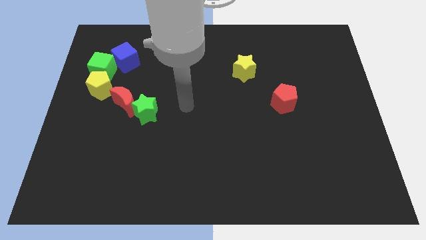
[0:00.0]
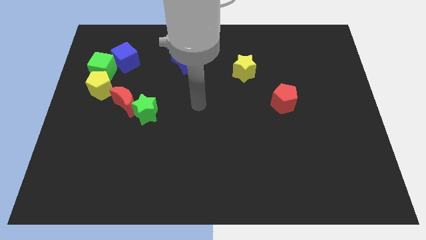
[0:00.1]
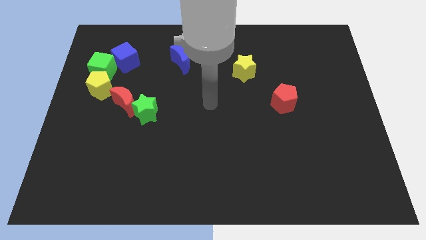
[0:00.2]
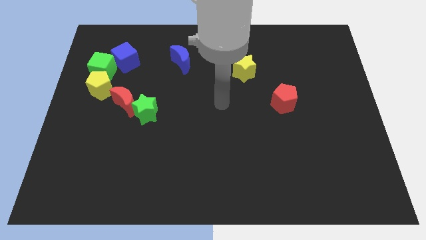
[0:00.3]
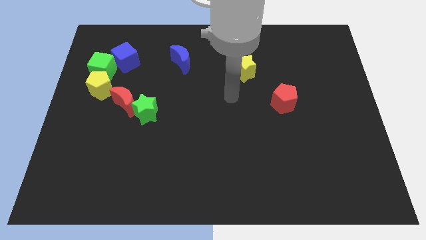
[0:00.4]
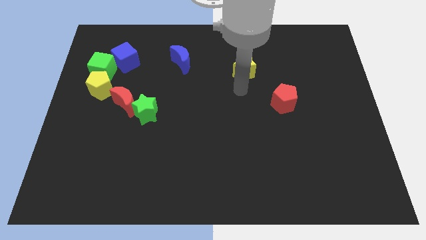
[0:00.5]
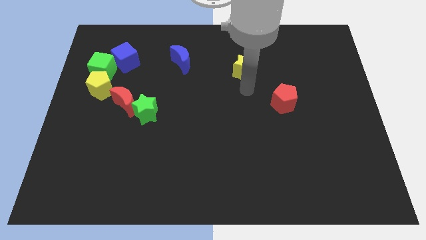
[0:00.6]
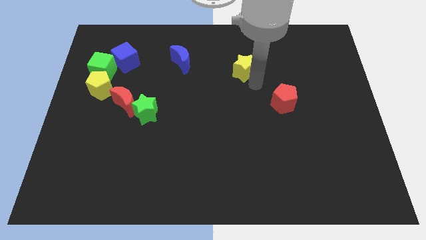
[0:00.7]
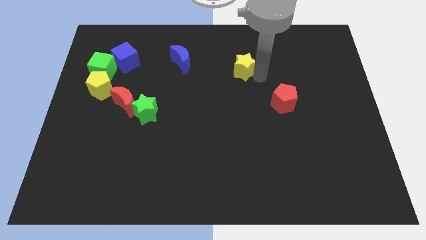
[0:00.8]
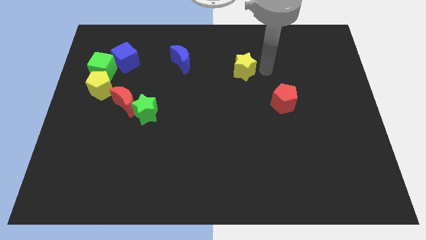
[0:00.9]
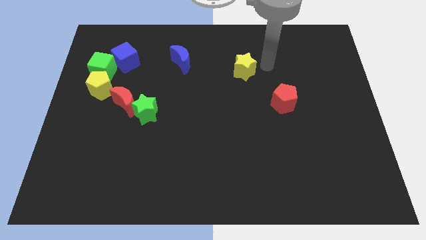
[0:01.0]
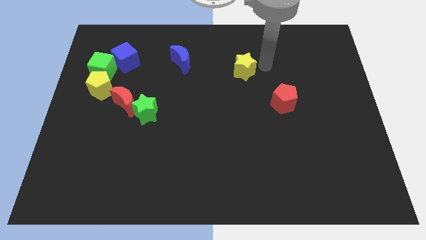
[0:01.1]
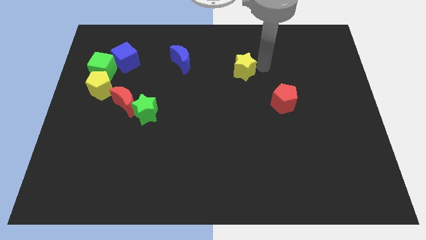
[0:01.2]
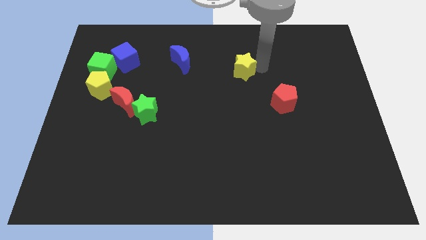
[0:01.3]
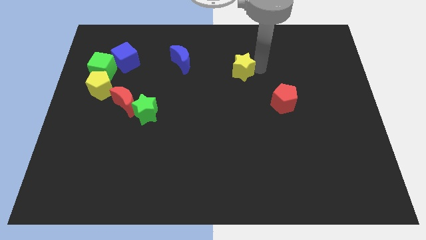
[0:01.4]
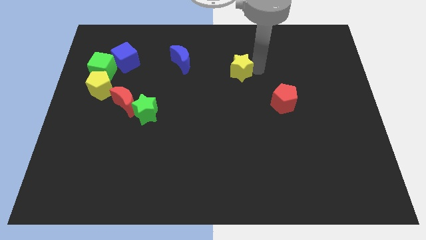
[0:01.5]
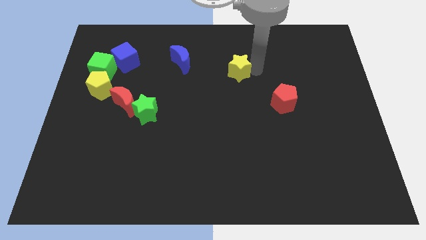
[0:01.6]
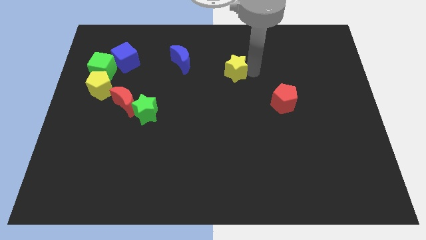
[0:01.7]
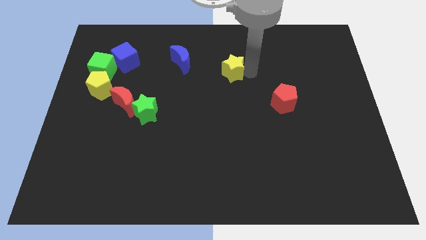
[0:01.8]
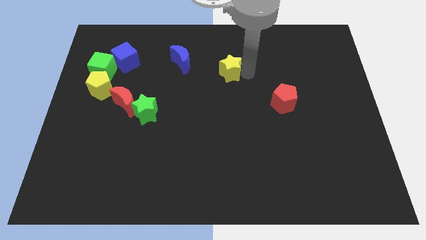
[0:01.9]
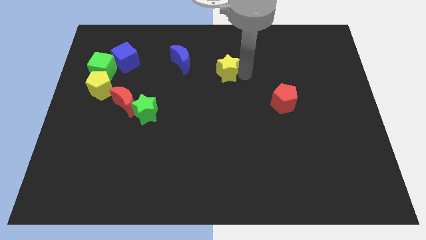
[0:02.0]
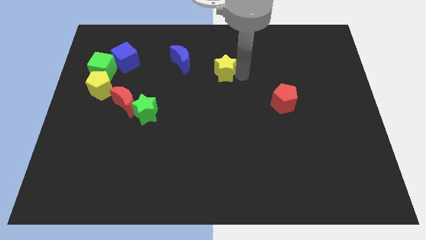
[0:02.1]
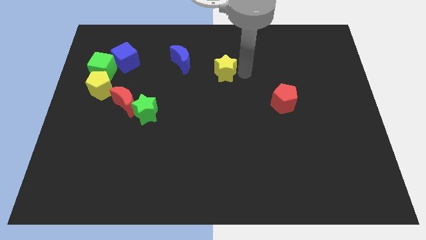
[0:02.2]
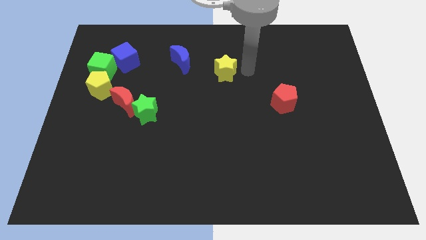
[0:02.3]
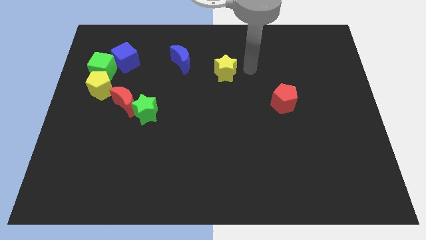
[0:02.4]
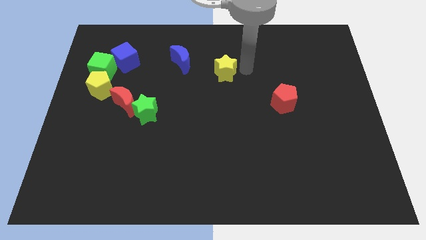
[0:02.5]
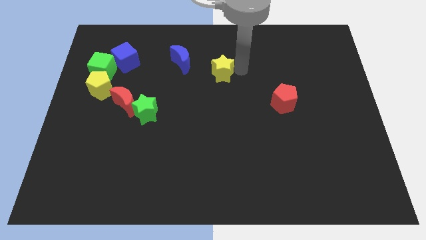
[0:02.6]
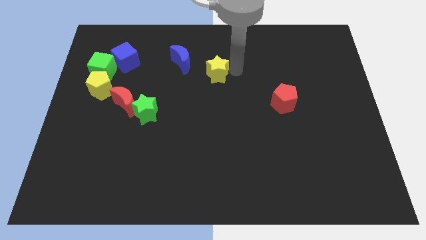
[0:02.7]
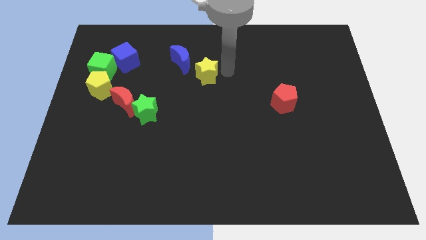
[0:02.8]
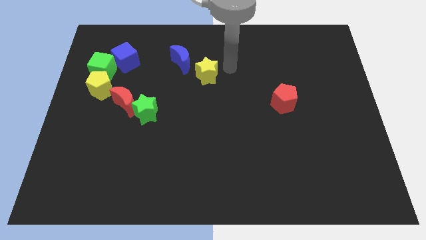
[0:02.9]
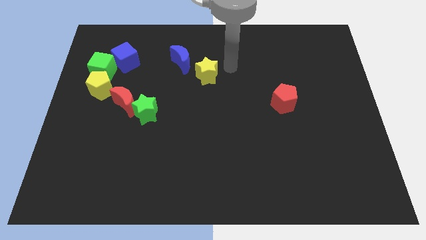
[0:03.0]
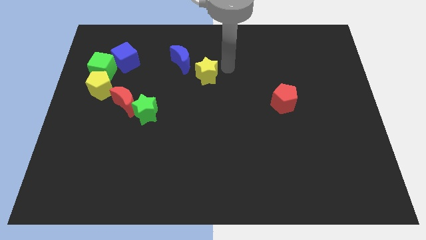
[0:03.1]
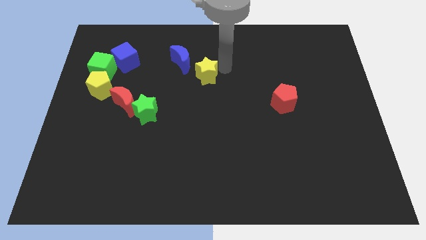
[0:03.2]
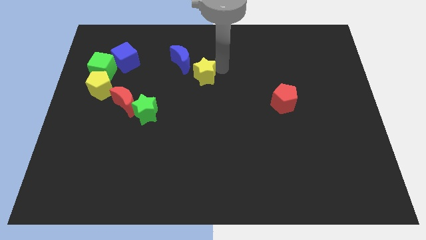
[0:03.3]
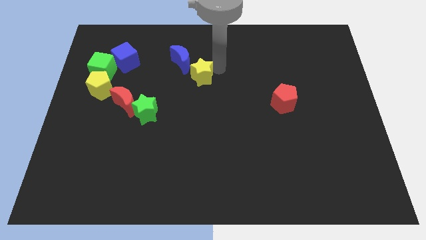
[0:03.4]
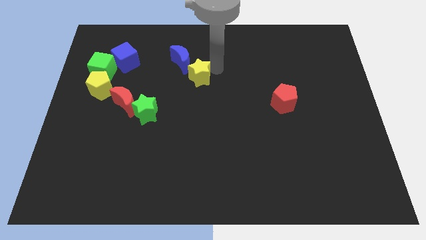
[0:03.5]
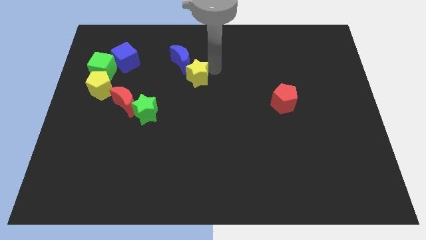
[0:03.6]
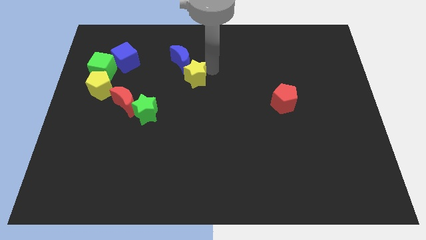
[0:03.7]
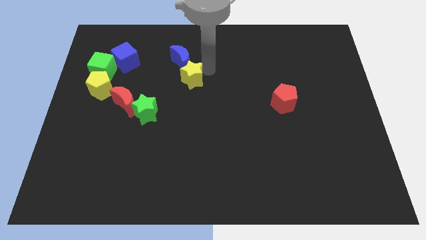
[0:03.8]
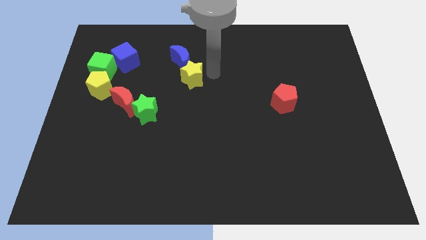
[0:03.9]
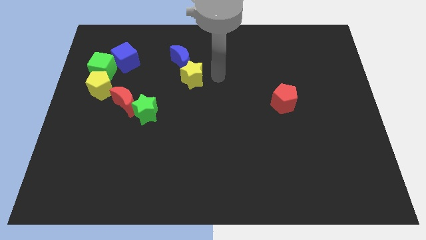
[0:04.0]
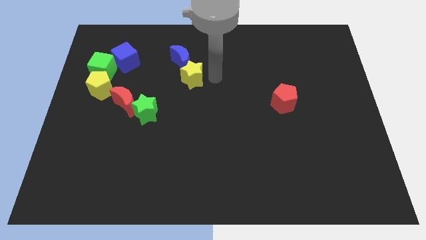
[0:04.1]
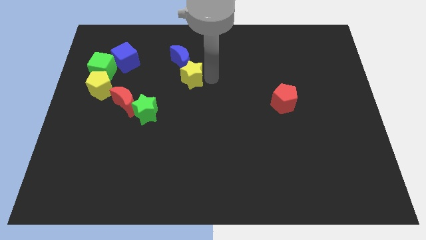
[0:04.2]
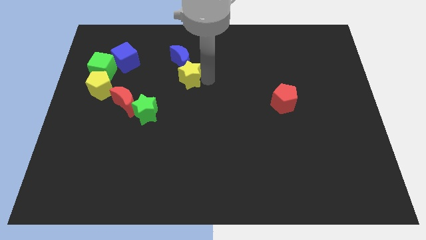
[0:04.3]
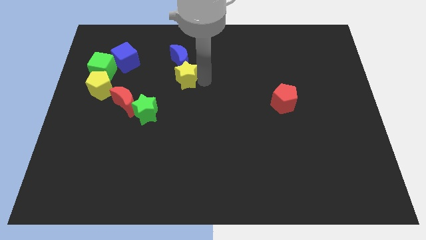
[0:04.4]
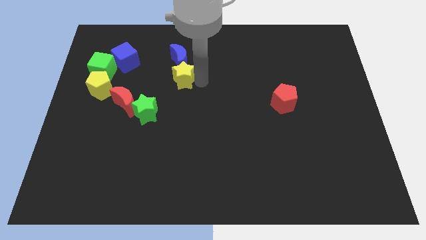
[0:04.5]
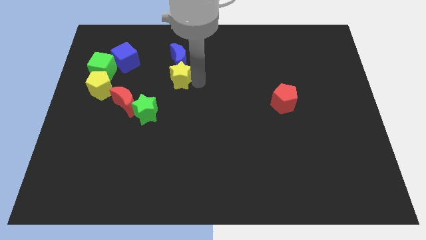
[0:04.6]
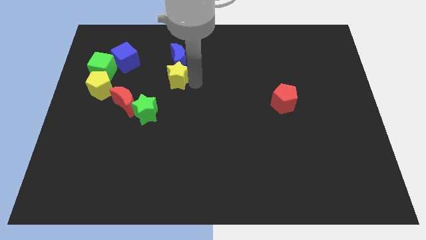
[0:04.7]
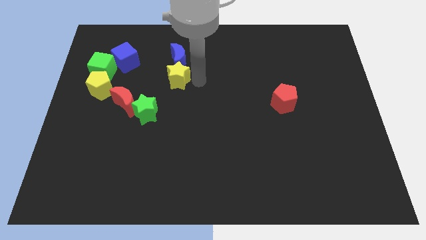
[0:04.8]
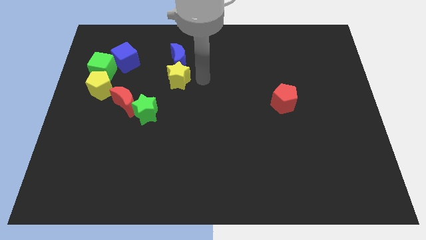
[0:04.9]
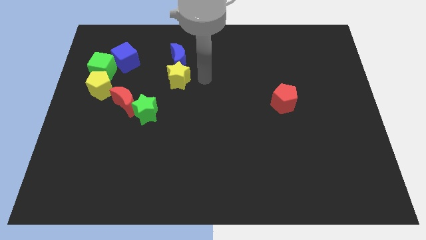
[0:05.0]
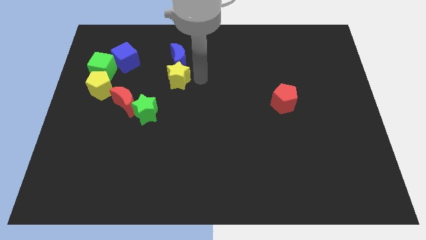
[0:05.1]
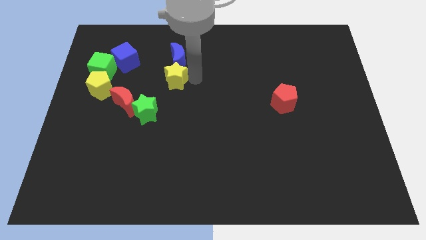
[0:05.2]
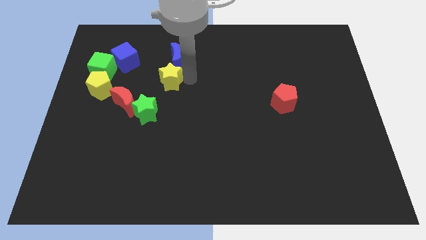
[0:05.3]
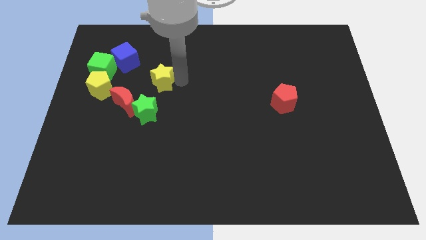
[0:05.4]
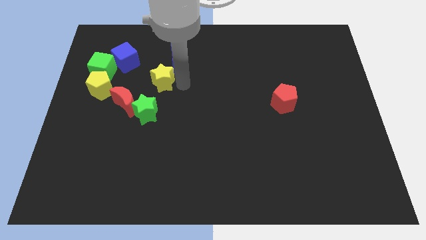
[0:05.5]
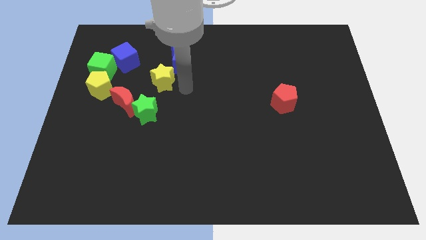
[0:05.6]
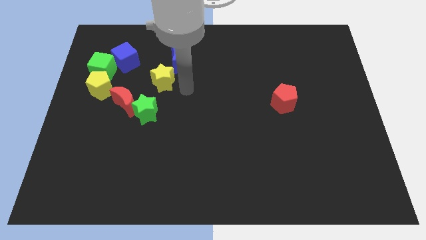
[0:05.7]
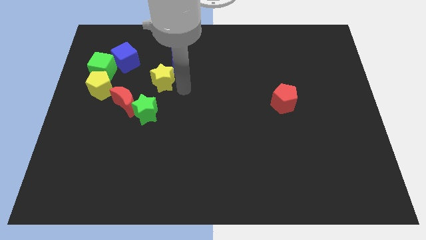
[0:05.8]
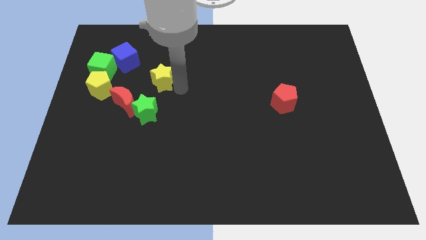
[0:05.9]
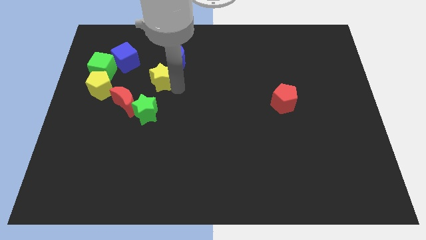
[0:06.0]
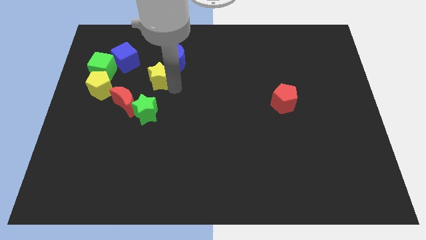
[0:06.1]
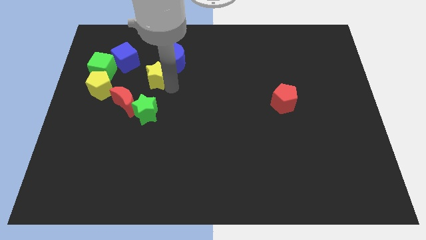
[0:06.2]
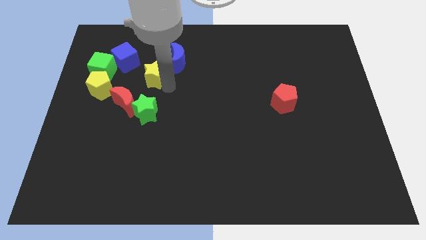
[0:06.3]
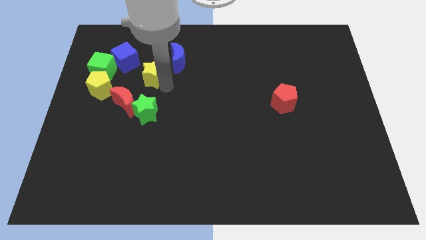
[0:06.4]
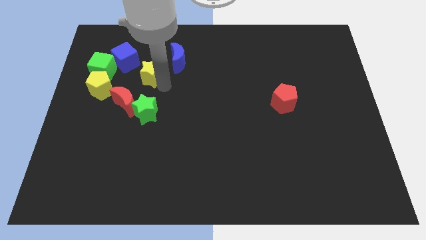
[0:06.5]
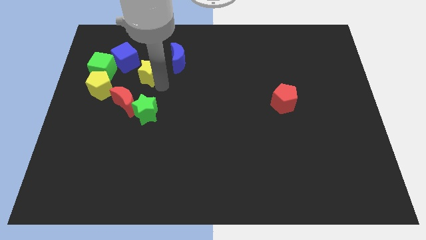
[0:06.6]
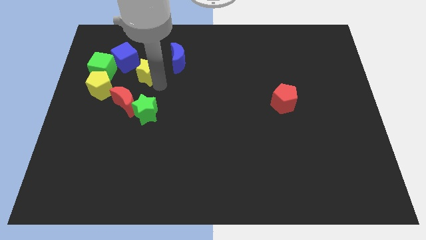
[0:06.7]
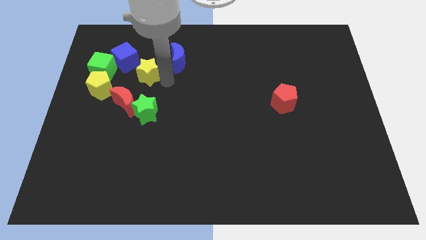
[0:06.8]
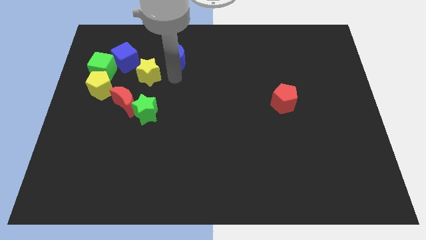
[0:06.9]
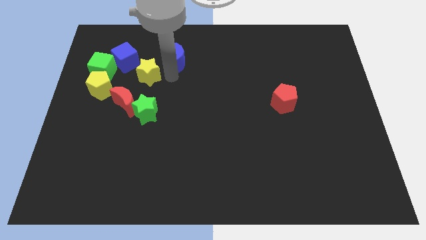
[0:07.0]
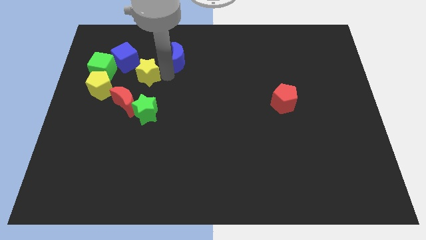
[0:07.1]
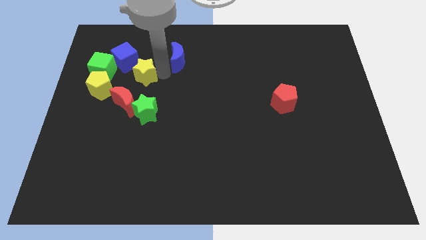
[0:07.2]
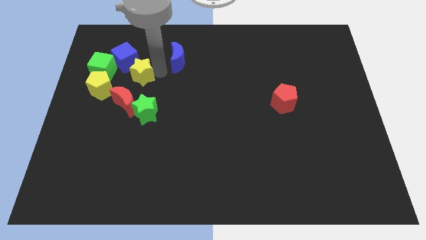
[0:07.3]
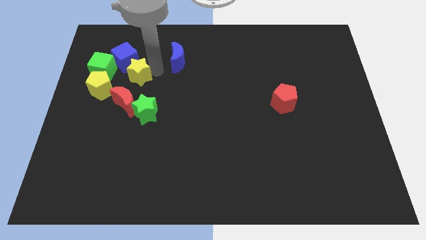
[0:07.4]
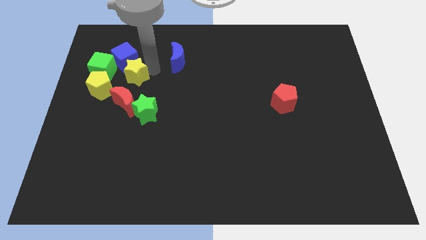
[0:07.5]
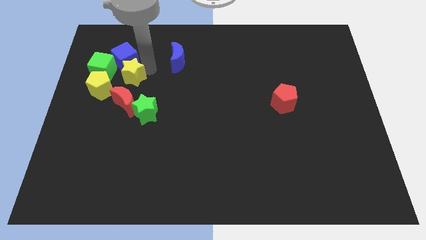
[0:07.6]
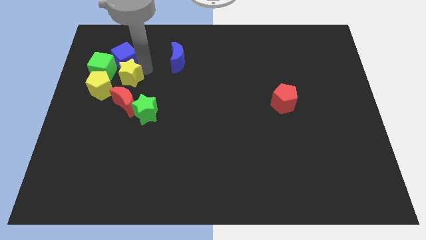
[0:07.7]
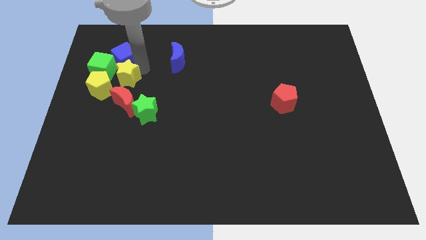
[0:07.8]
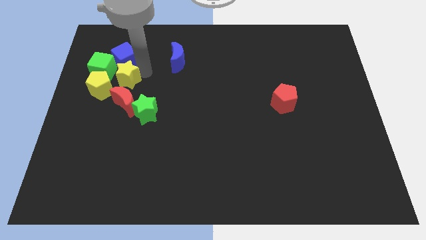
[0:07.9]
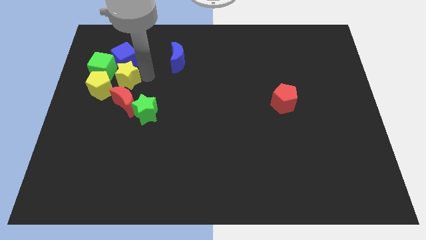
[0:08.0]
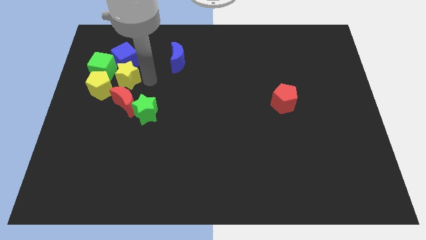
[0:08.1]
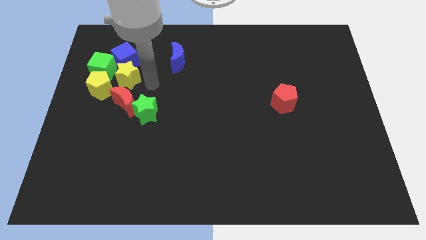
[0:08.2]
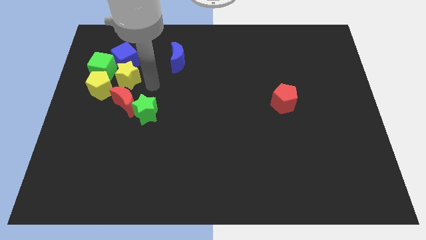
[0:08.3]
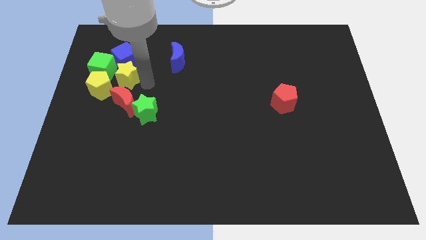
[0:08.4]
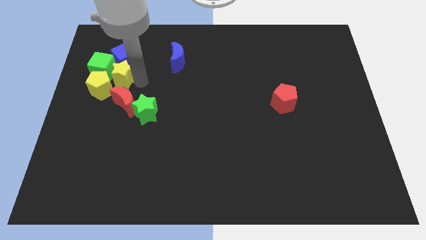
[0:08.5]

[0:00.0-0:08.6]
put the yellow star close to the green cube
